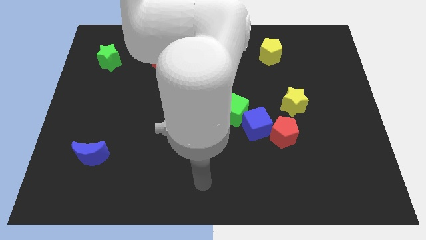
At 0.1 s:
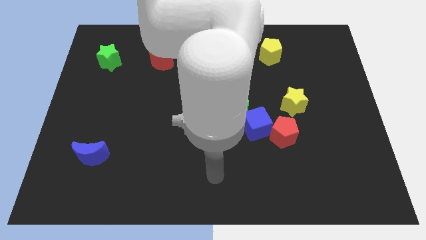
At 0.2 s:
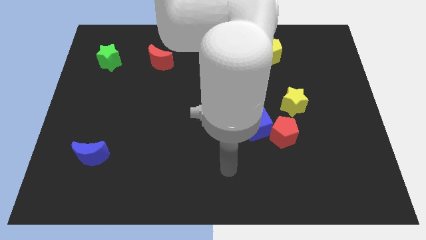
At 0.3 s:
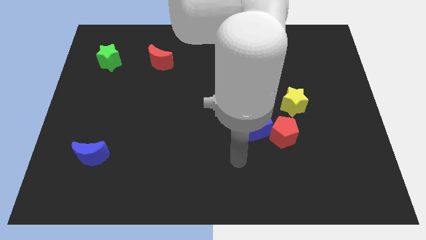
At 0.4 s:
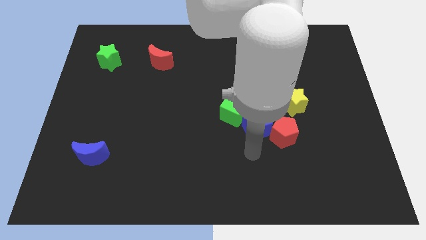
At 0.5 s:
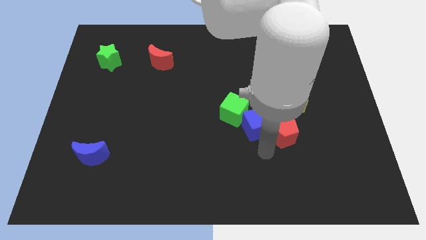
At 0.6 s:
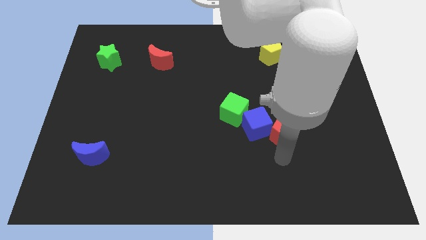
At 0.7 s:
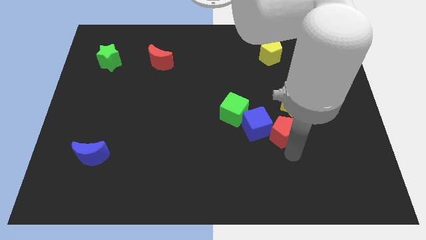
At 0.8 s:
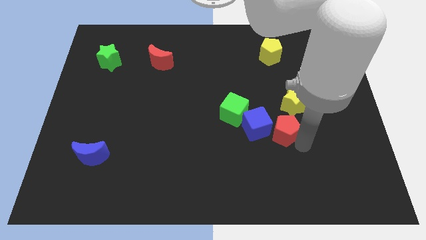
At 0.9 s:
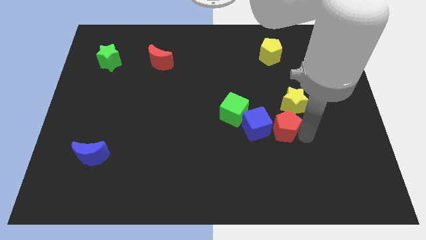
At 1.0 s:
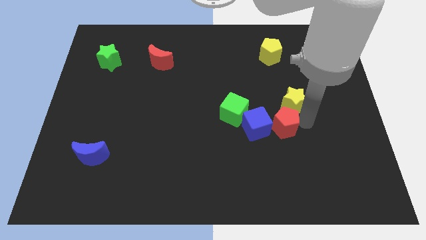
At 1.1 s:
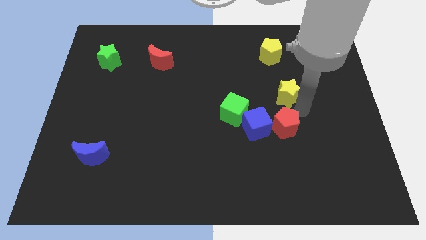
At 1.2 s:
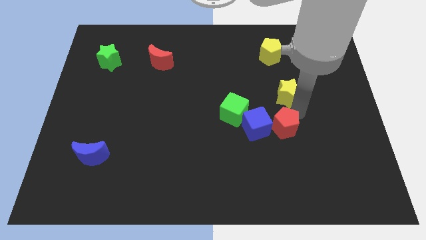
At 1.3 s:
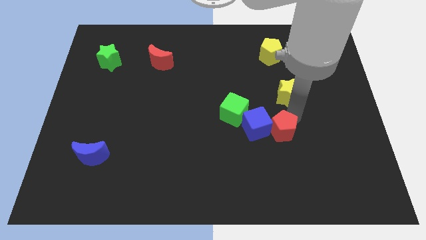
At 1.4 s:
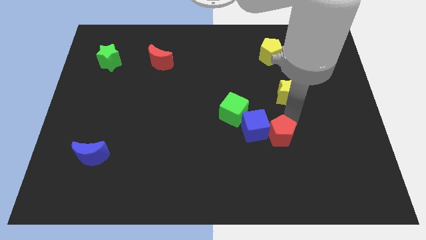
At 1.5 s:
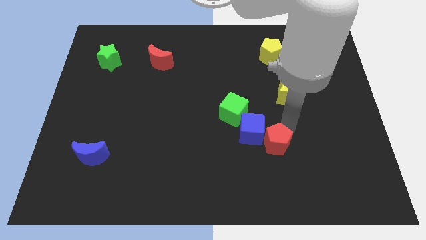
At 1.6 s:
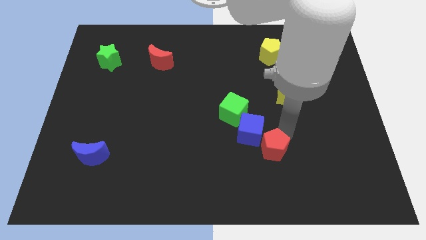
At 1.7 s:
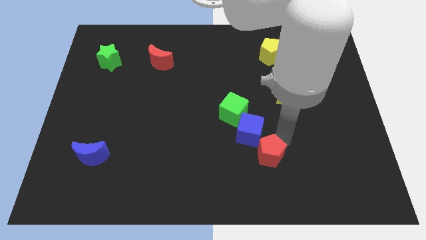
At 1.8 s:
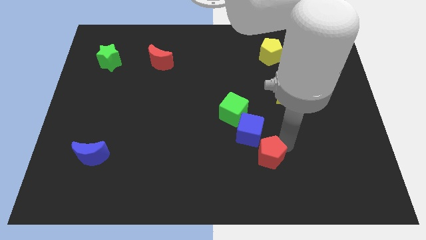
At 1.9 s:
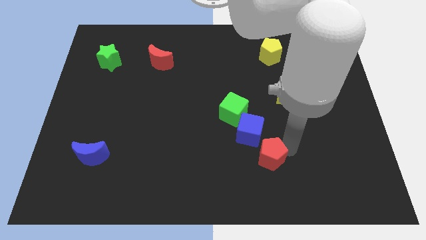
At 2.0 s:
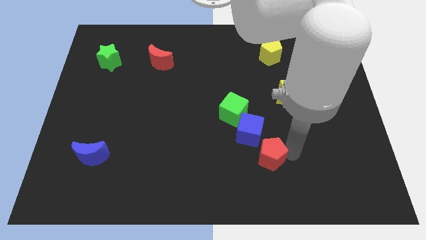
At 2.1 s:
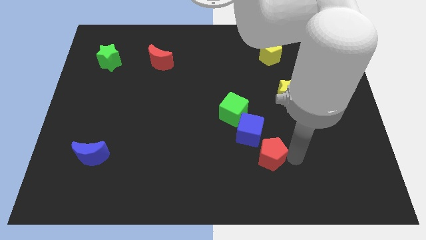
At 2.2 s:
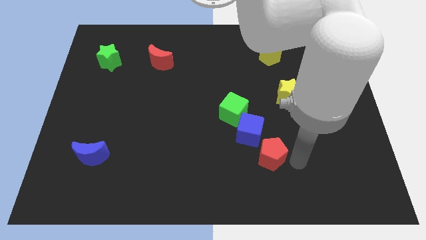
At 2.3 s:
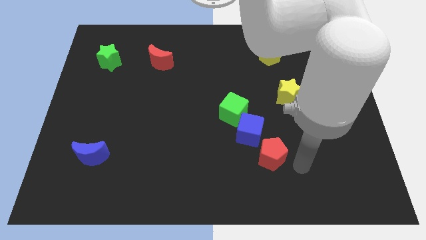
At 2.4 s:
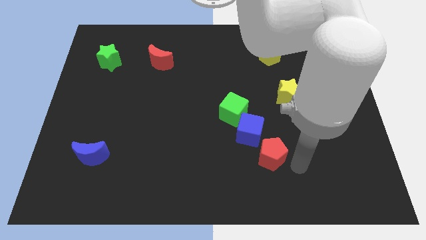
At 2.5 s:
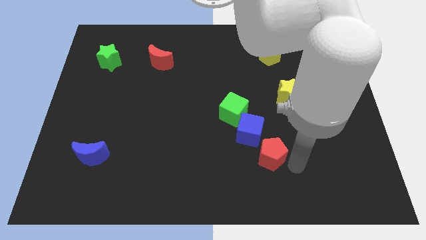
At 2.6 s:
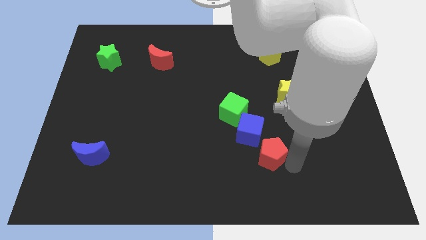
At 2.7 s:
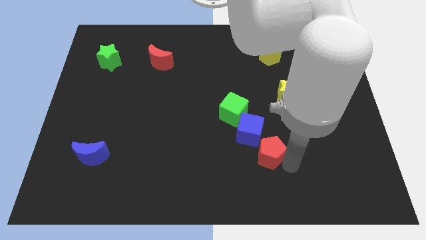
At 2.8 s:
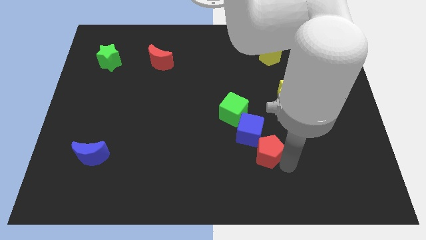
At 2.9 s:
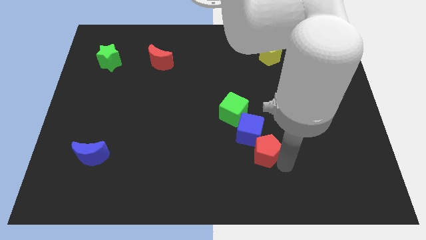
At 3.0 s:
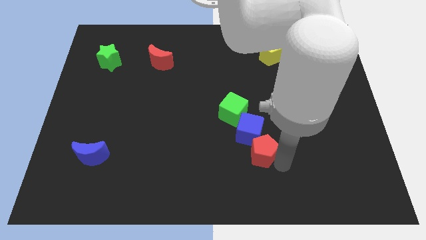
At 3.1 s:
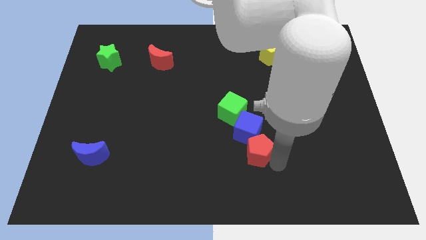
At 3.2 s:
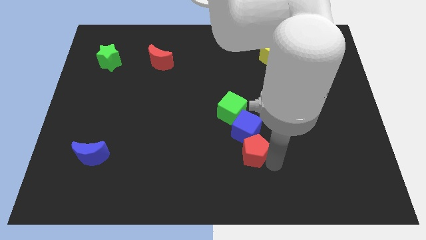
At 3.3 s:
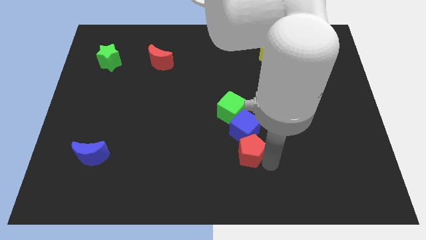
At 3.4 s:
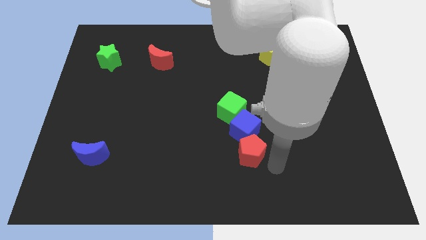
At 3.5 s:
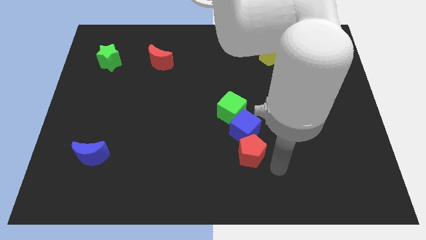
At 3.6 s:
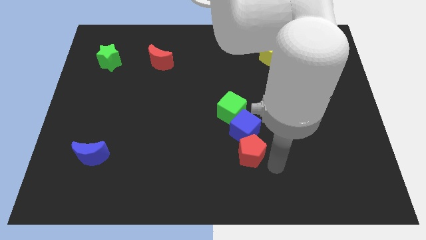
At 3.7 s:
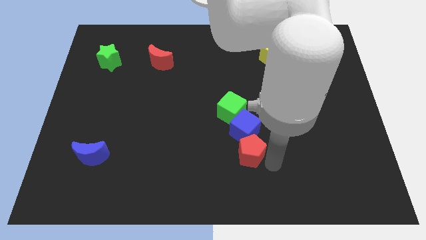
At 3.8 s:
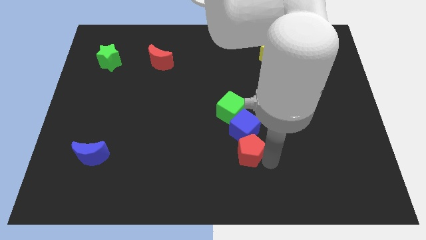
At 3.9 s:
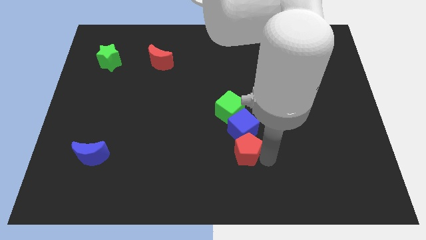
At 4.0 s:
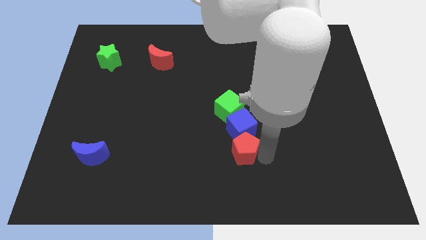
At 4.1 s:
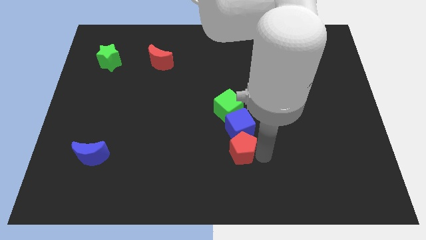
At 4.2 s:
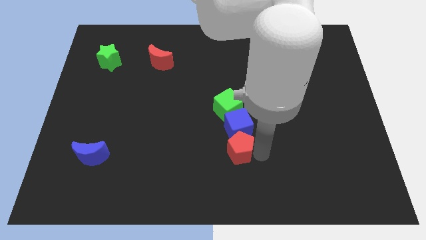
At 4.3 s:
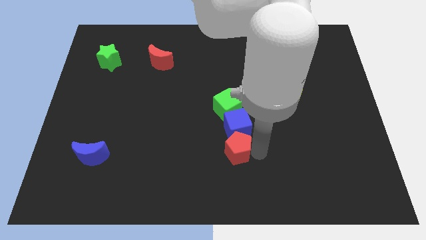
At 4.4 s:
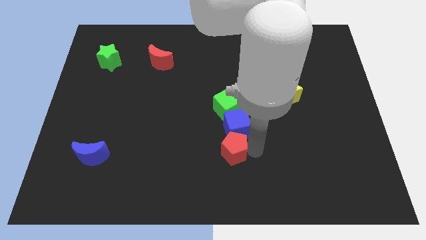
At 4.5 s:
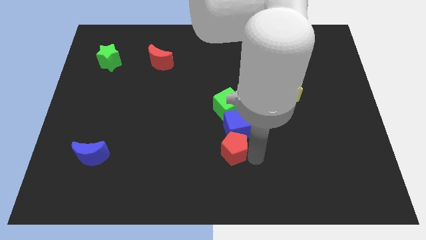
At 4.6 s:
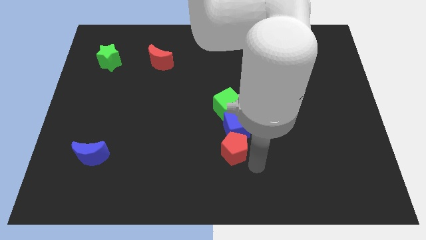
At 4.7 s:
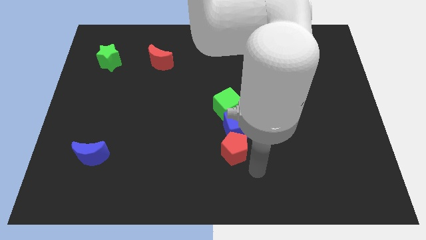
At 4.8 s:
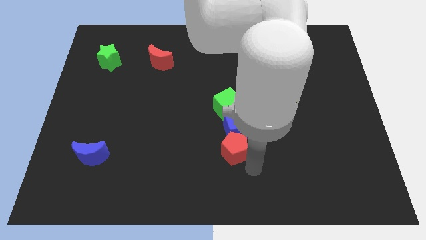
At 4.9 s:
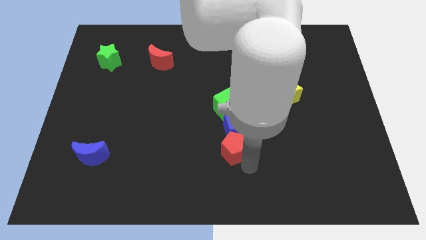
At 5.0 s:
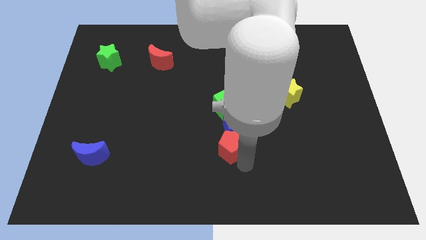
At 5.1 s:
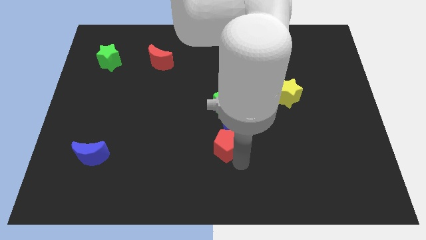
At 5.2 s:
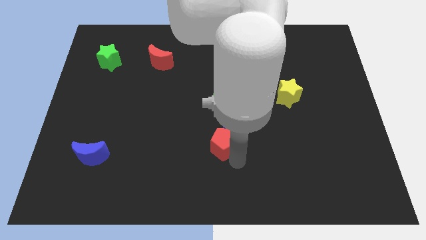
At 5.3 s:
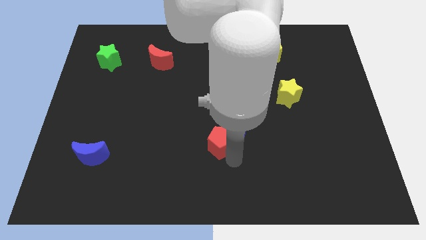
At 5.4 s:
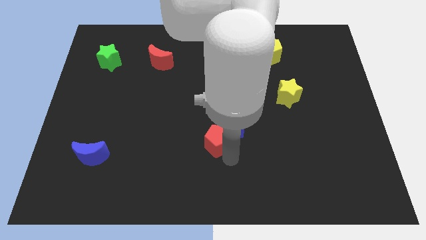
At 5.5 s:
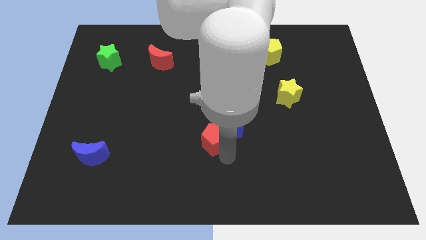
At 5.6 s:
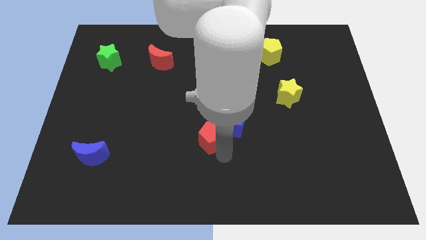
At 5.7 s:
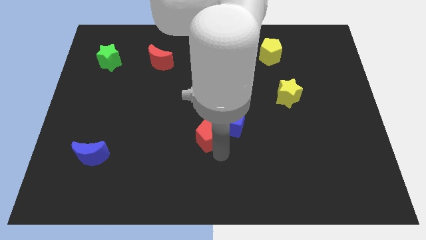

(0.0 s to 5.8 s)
put the red pentagon diagonally down and to the left of the green cube
